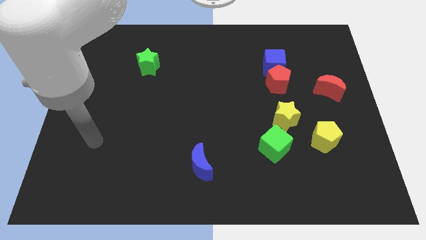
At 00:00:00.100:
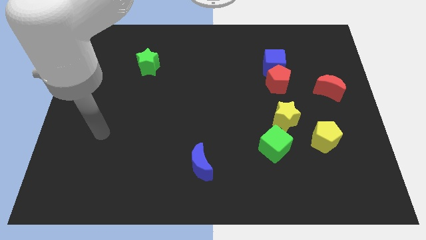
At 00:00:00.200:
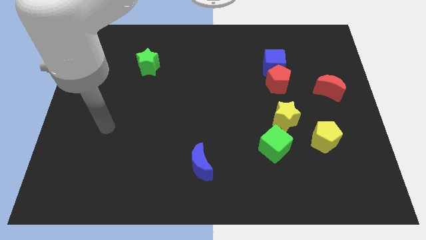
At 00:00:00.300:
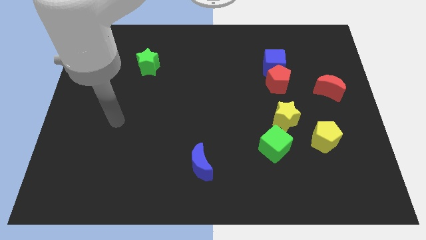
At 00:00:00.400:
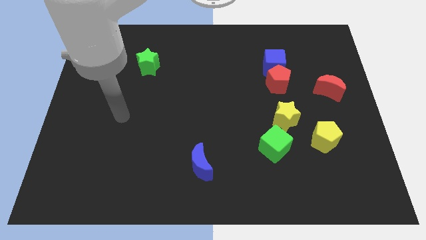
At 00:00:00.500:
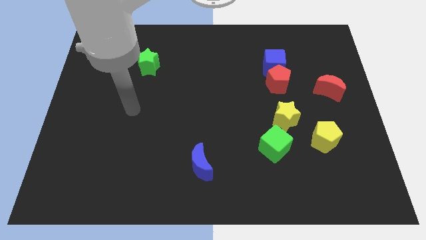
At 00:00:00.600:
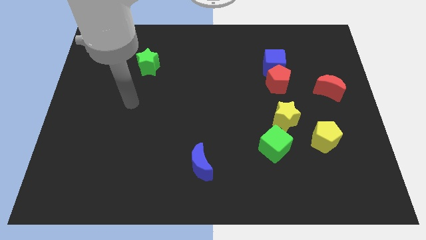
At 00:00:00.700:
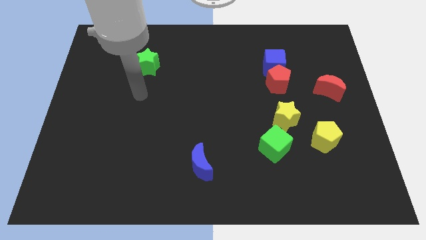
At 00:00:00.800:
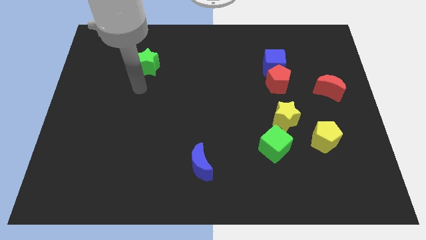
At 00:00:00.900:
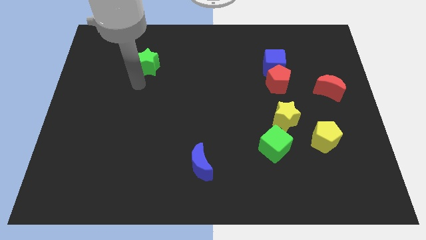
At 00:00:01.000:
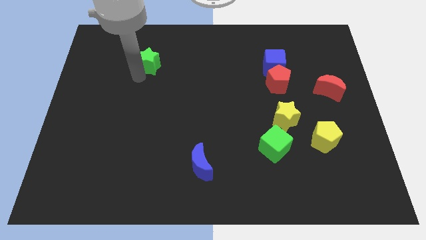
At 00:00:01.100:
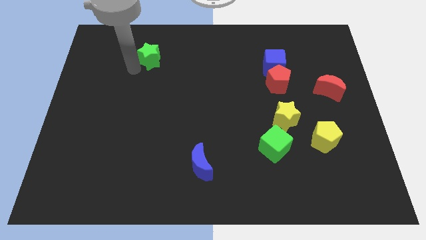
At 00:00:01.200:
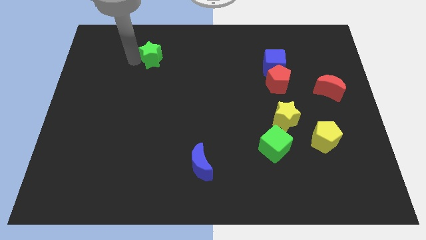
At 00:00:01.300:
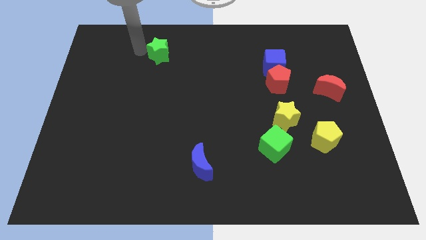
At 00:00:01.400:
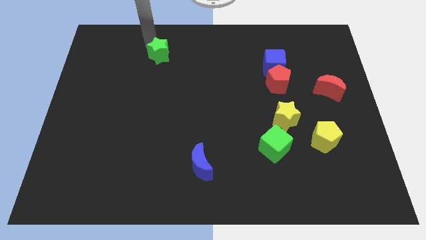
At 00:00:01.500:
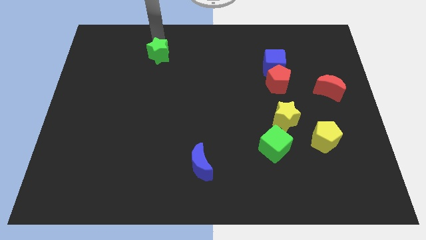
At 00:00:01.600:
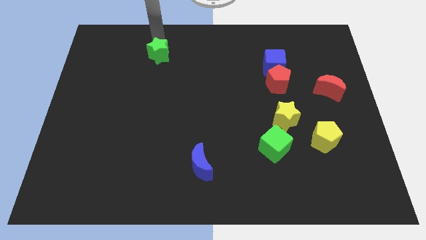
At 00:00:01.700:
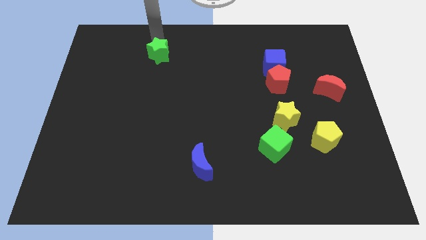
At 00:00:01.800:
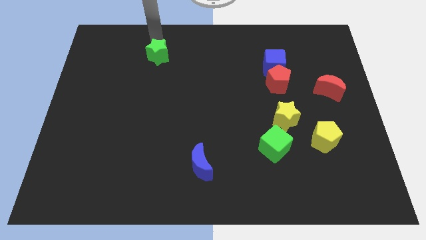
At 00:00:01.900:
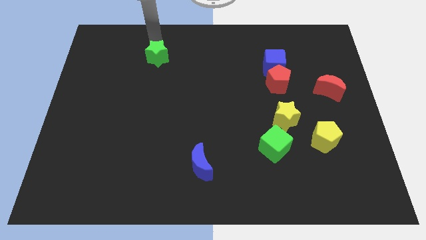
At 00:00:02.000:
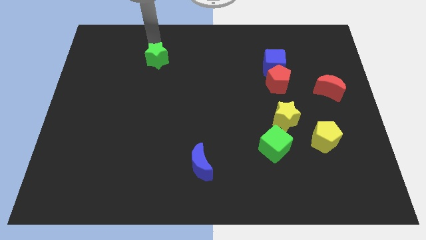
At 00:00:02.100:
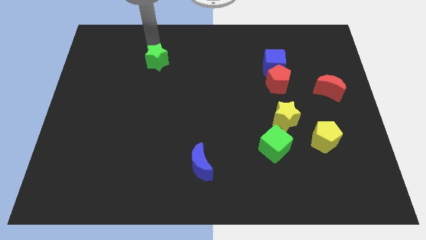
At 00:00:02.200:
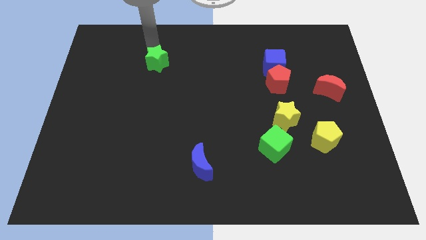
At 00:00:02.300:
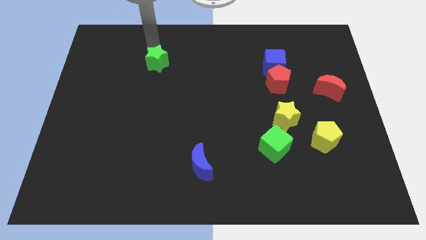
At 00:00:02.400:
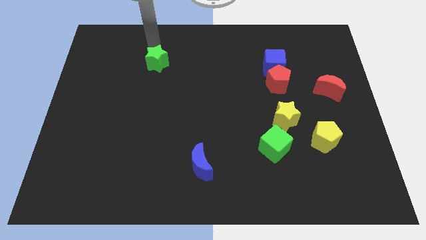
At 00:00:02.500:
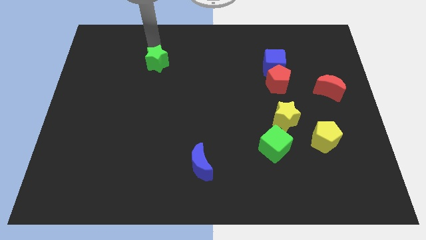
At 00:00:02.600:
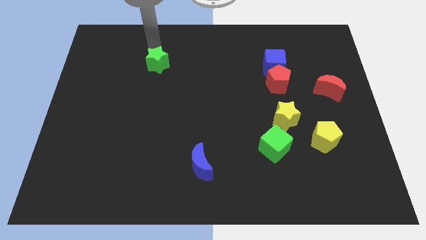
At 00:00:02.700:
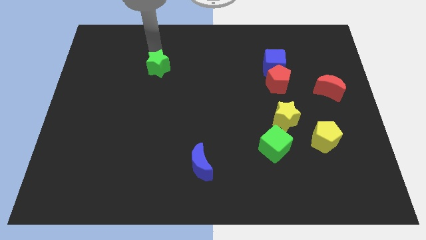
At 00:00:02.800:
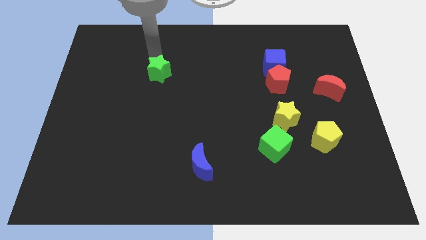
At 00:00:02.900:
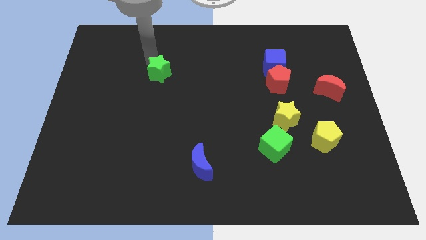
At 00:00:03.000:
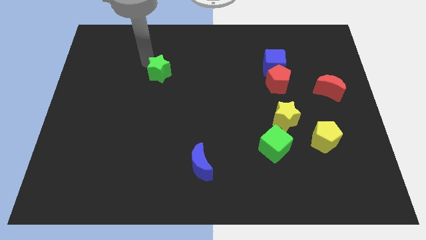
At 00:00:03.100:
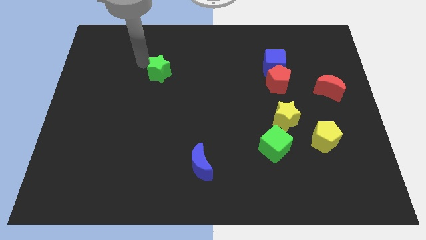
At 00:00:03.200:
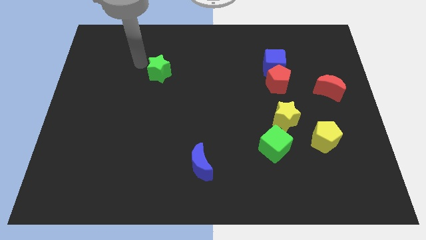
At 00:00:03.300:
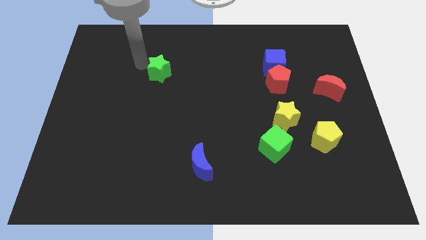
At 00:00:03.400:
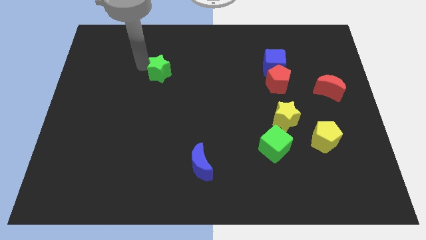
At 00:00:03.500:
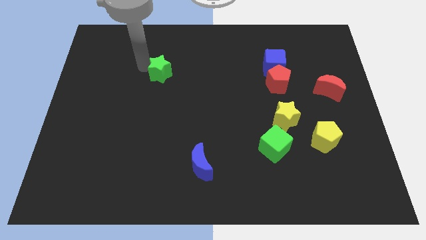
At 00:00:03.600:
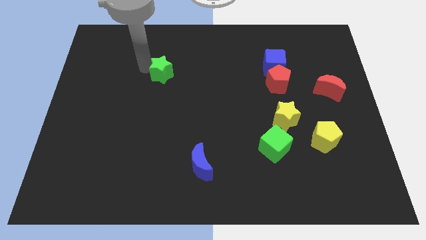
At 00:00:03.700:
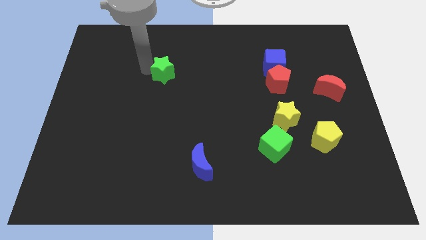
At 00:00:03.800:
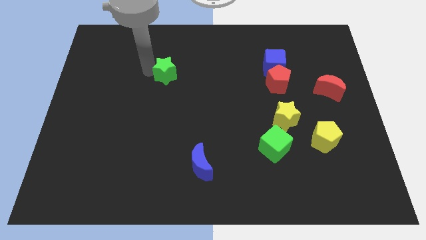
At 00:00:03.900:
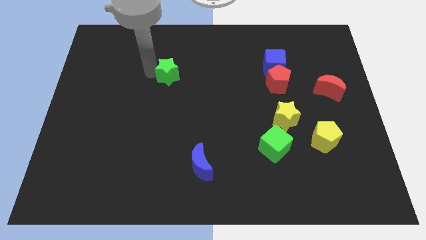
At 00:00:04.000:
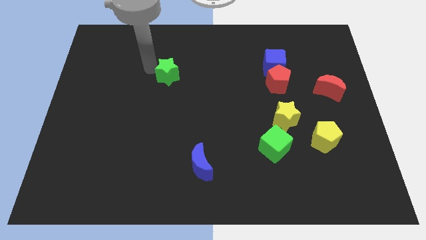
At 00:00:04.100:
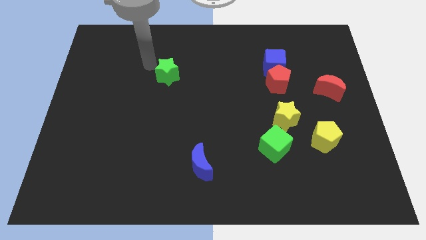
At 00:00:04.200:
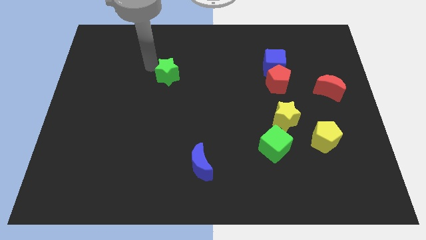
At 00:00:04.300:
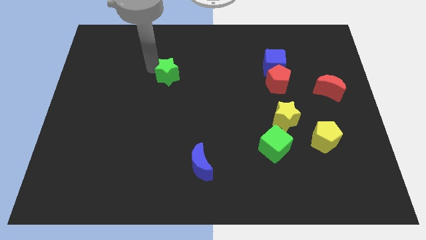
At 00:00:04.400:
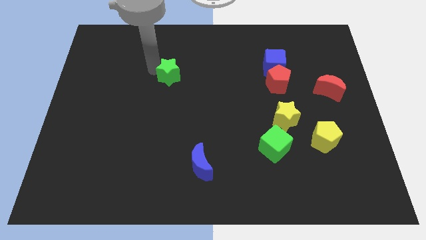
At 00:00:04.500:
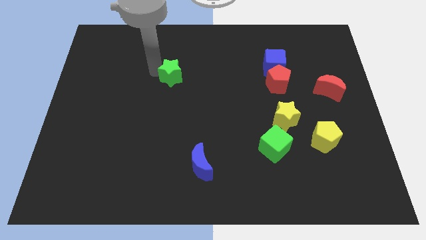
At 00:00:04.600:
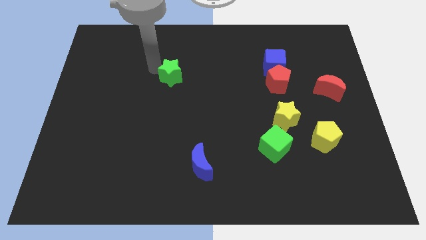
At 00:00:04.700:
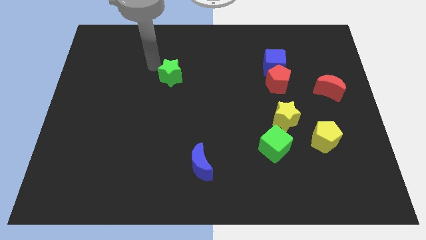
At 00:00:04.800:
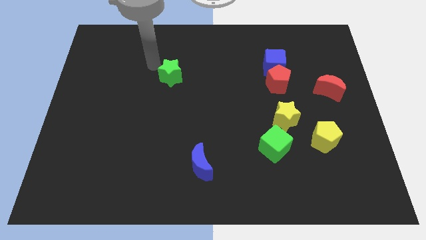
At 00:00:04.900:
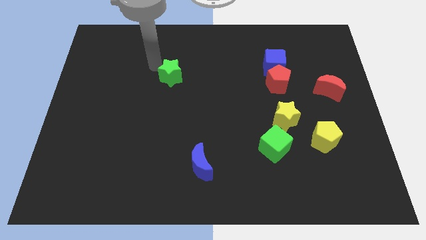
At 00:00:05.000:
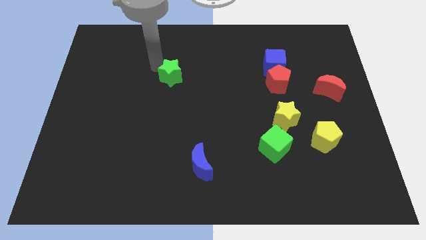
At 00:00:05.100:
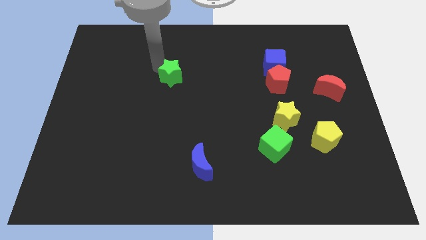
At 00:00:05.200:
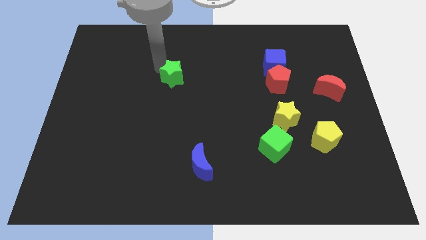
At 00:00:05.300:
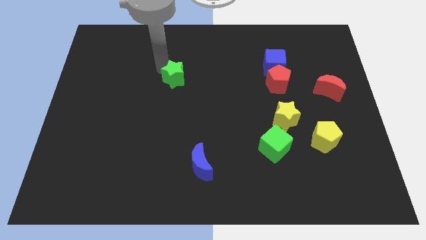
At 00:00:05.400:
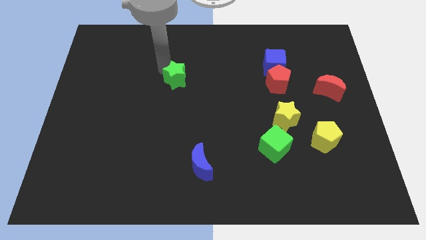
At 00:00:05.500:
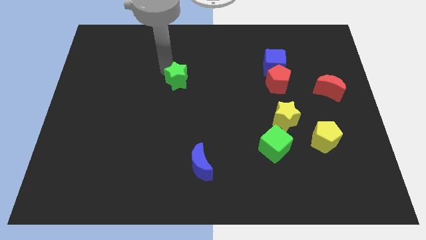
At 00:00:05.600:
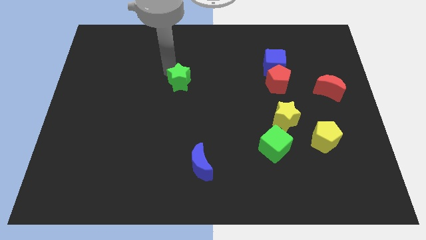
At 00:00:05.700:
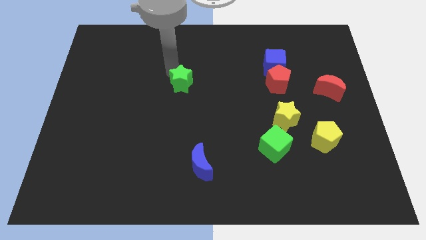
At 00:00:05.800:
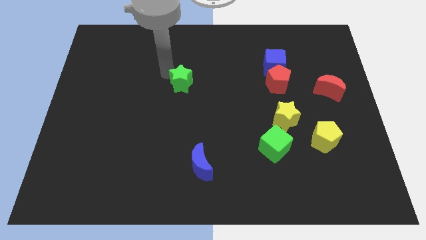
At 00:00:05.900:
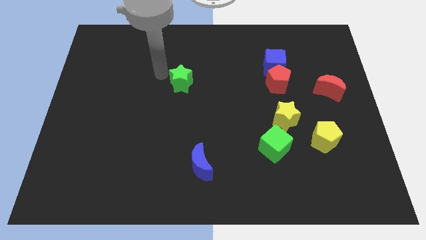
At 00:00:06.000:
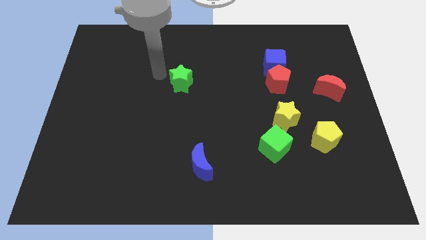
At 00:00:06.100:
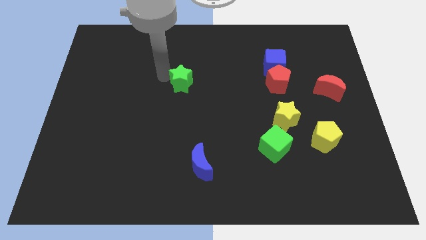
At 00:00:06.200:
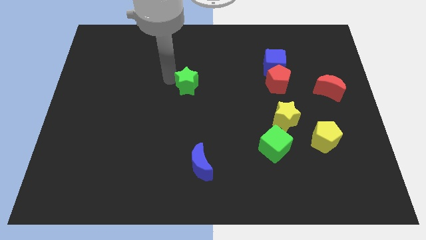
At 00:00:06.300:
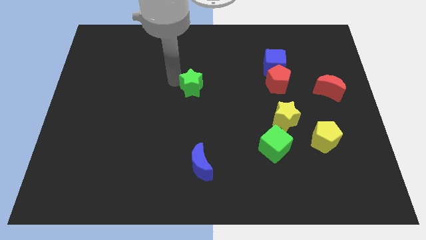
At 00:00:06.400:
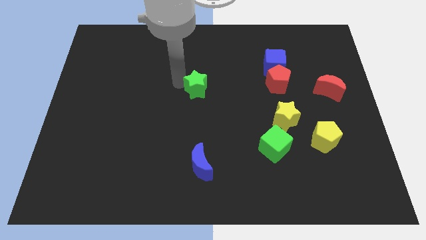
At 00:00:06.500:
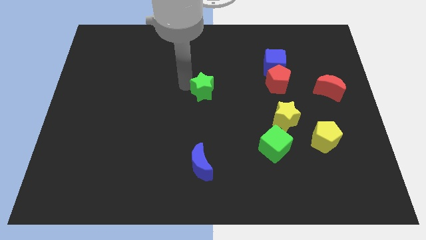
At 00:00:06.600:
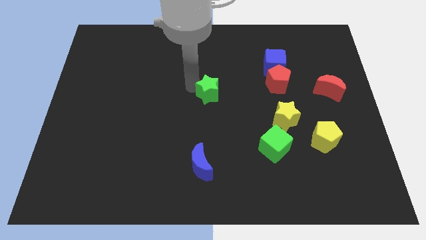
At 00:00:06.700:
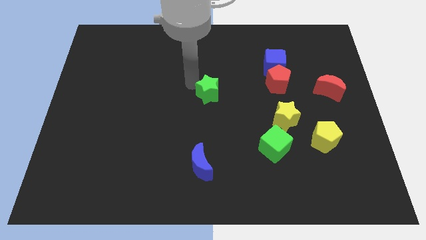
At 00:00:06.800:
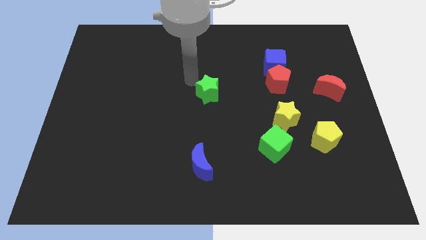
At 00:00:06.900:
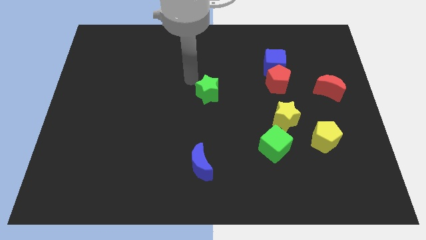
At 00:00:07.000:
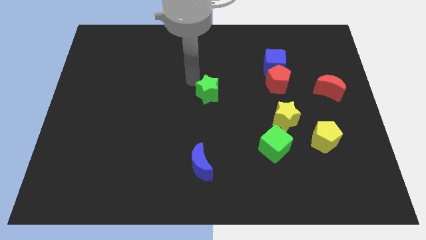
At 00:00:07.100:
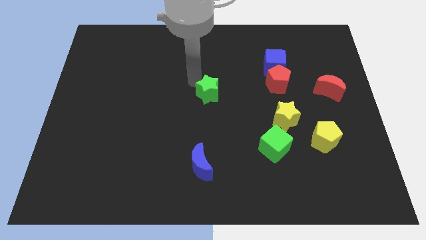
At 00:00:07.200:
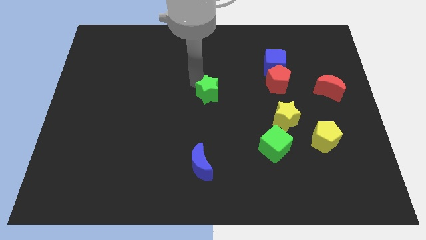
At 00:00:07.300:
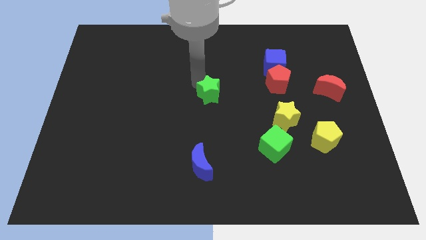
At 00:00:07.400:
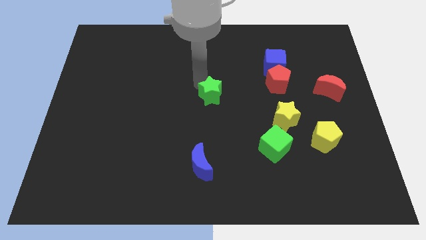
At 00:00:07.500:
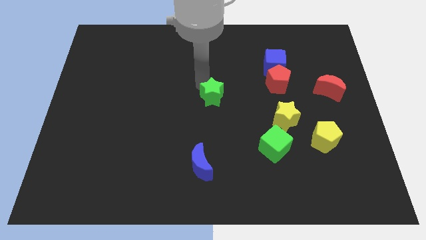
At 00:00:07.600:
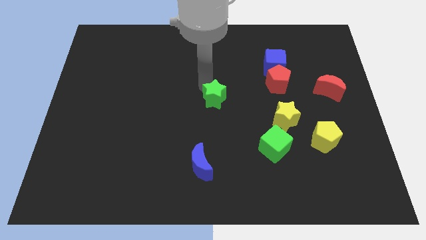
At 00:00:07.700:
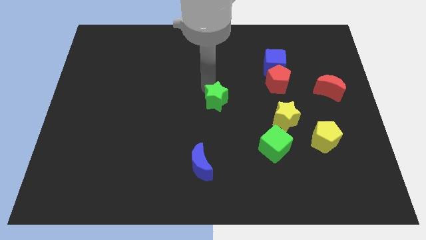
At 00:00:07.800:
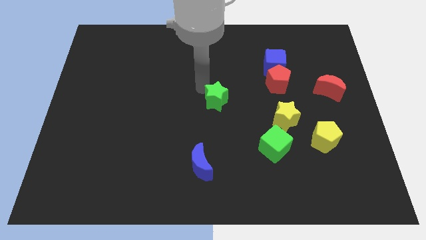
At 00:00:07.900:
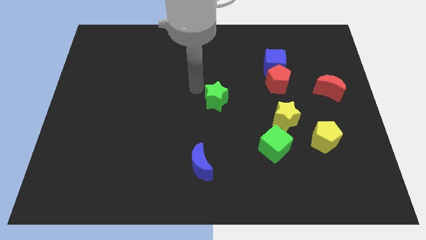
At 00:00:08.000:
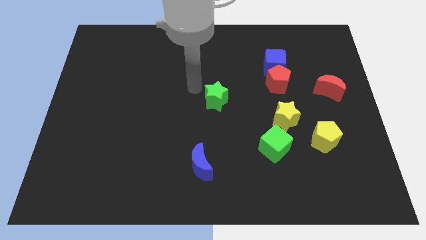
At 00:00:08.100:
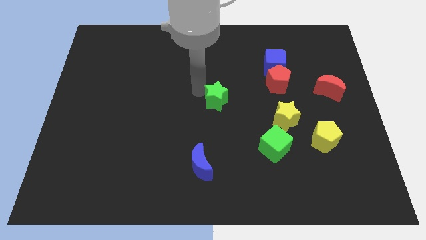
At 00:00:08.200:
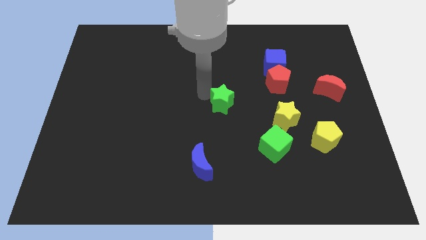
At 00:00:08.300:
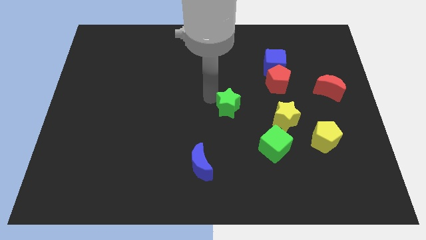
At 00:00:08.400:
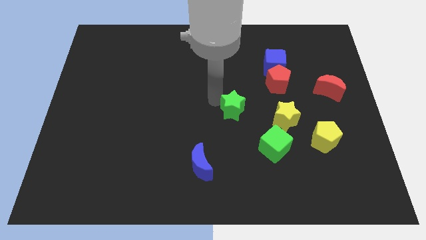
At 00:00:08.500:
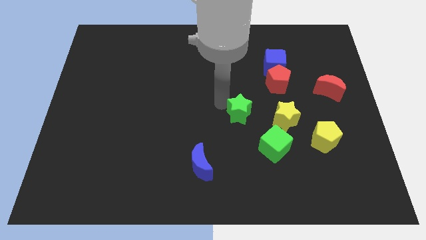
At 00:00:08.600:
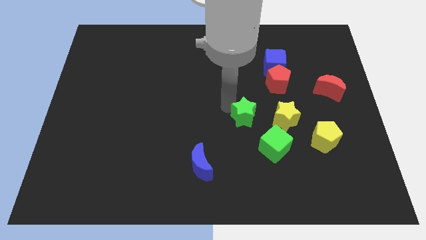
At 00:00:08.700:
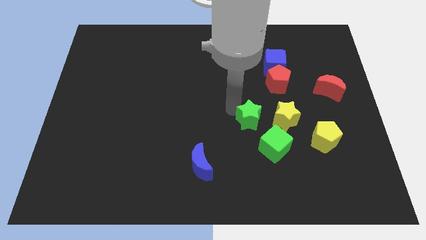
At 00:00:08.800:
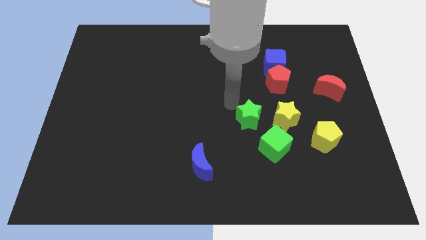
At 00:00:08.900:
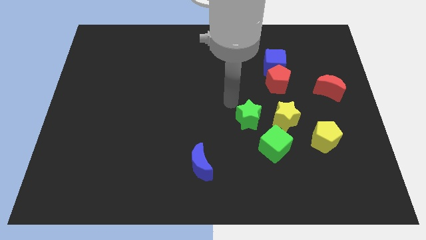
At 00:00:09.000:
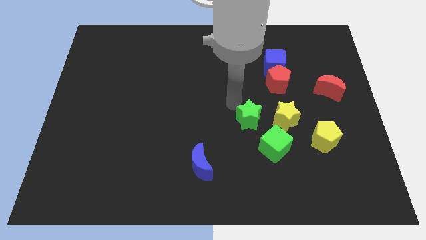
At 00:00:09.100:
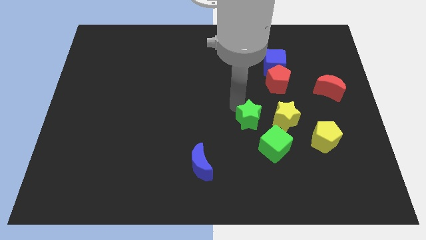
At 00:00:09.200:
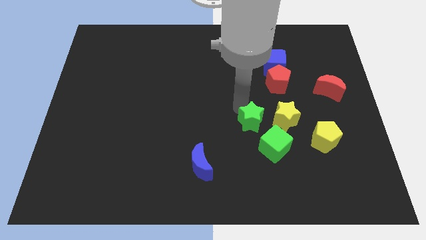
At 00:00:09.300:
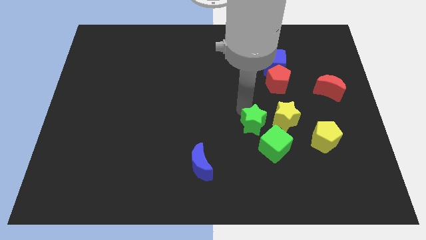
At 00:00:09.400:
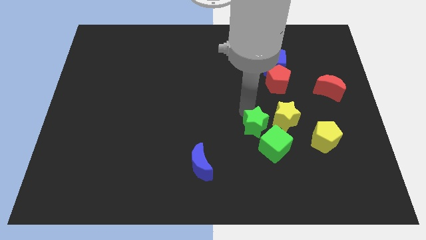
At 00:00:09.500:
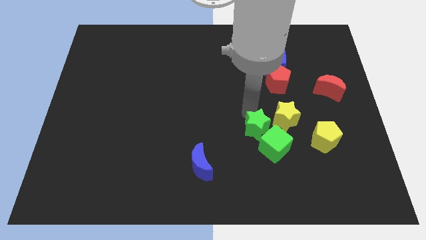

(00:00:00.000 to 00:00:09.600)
push the green star towards the green cube
